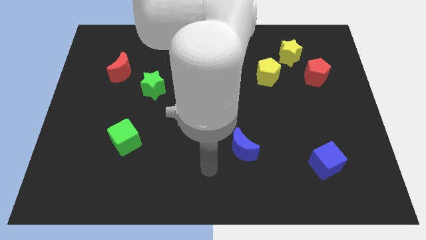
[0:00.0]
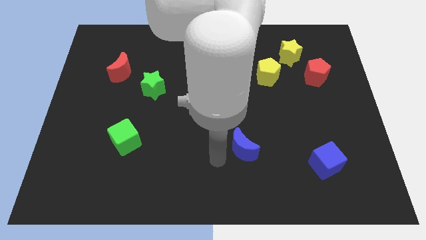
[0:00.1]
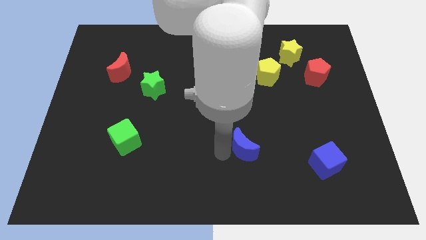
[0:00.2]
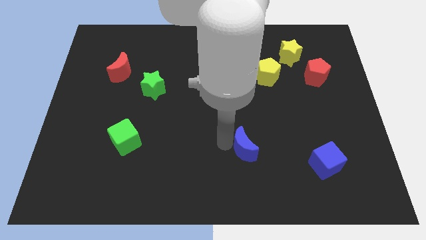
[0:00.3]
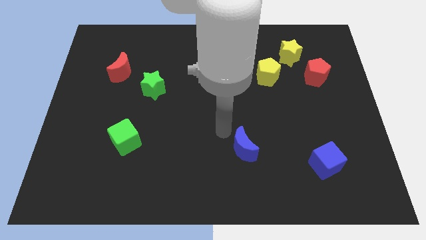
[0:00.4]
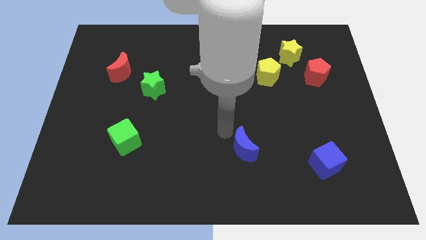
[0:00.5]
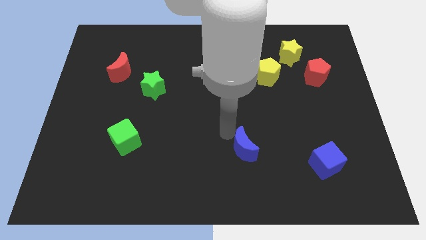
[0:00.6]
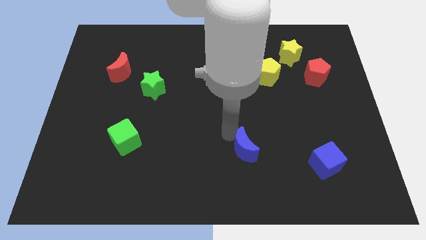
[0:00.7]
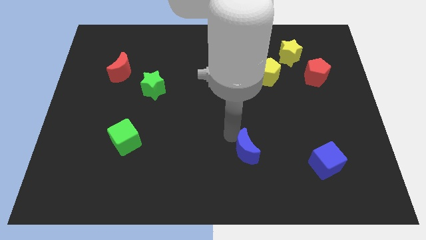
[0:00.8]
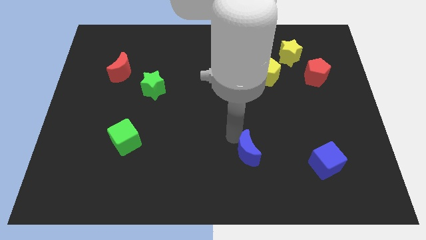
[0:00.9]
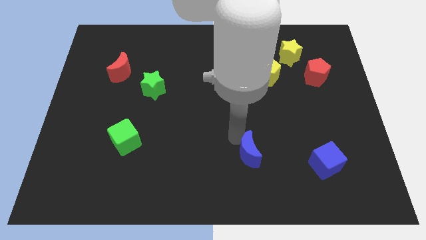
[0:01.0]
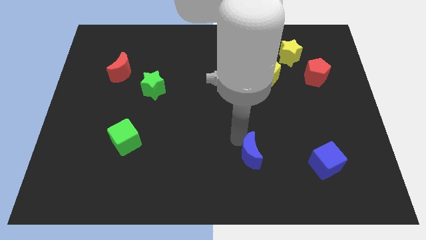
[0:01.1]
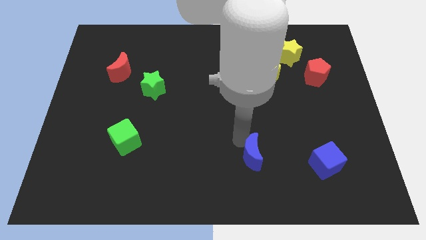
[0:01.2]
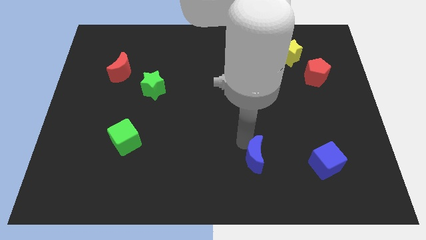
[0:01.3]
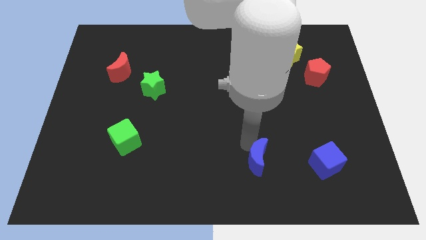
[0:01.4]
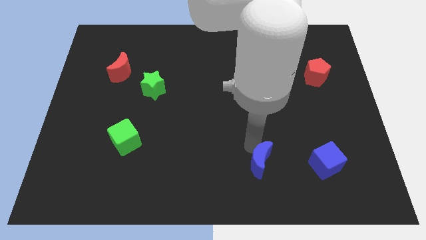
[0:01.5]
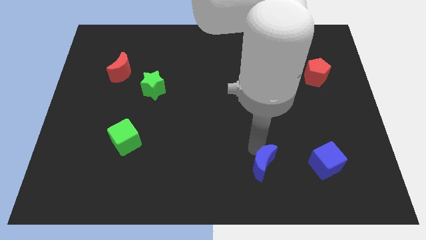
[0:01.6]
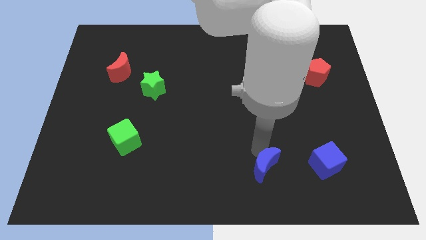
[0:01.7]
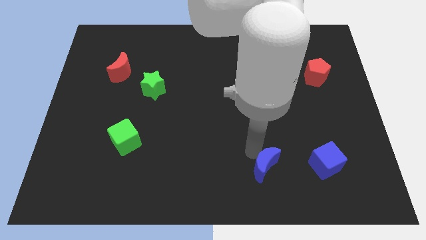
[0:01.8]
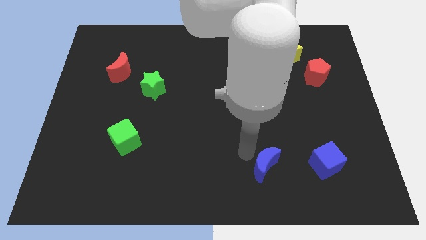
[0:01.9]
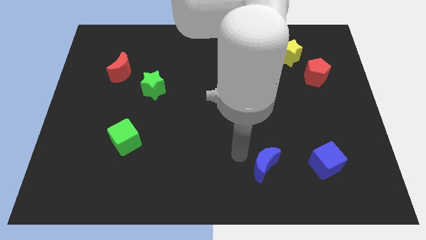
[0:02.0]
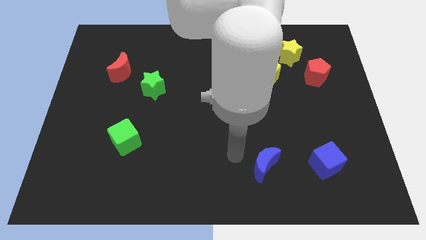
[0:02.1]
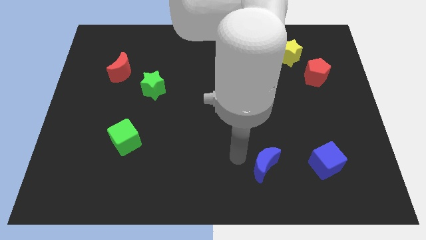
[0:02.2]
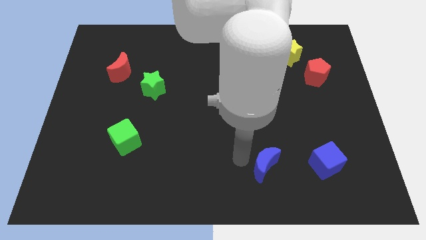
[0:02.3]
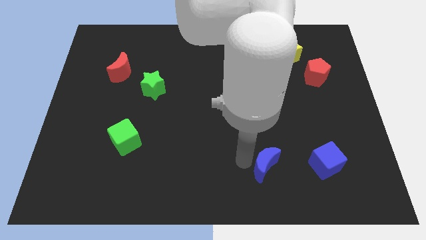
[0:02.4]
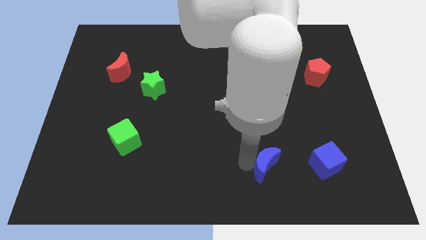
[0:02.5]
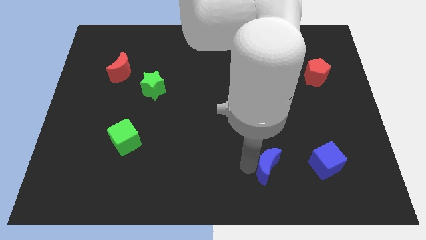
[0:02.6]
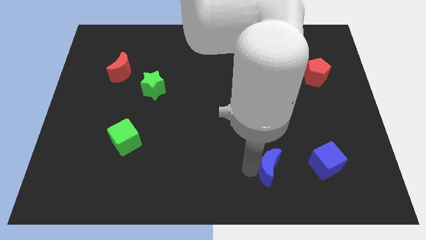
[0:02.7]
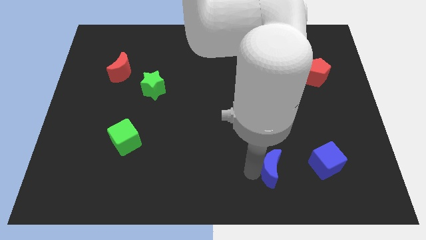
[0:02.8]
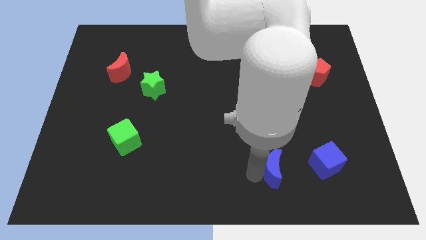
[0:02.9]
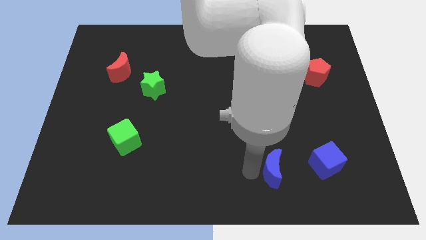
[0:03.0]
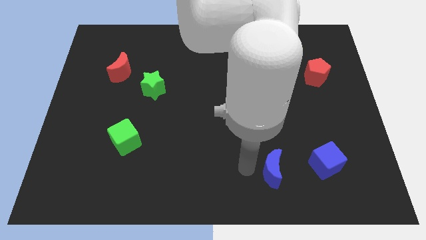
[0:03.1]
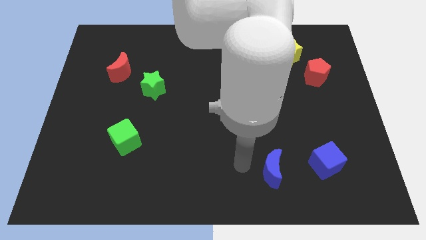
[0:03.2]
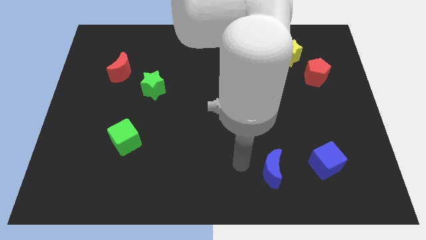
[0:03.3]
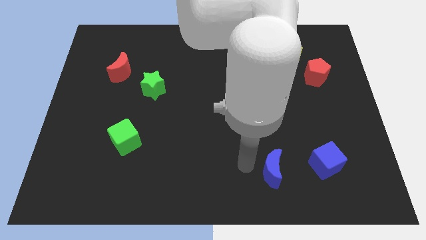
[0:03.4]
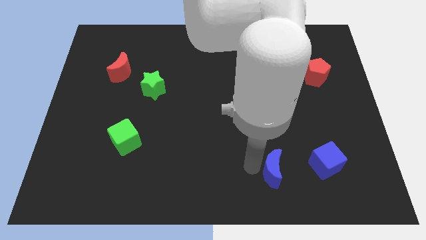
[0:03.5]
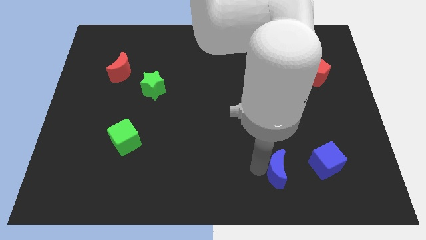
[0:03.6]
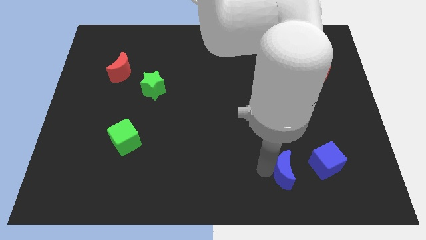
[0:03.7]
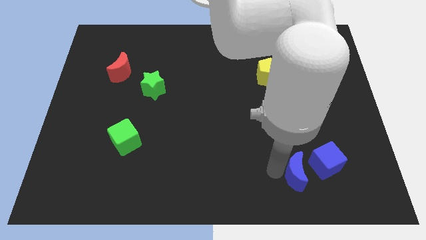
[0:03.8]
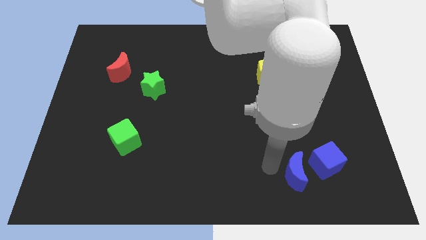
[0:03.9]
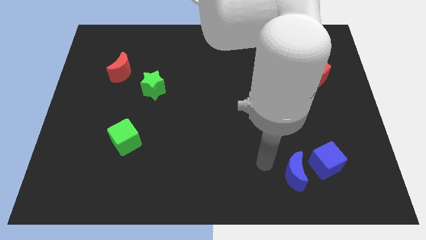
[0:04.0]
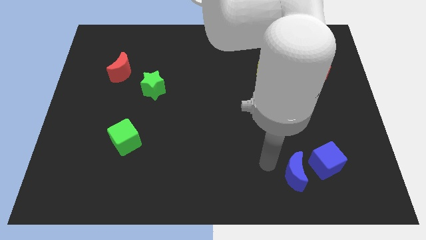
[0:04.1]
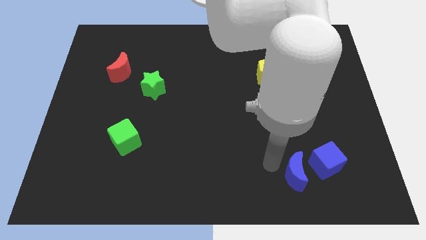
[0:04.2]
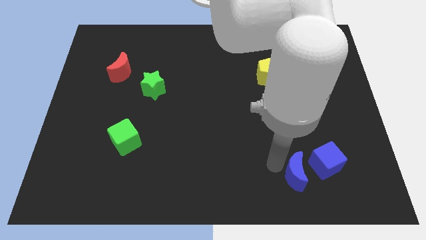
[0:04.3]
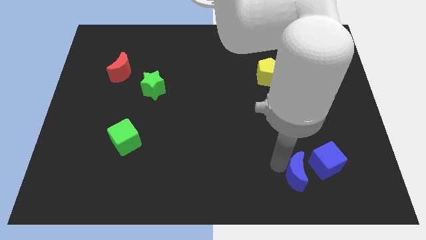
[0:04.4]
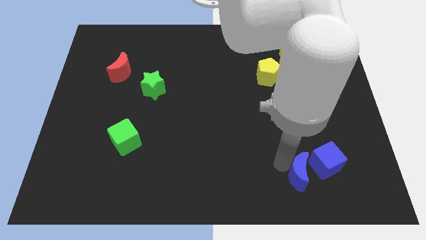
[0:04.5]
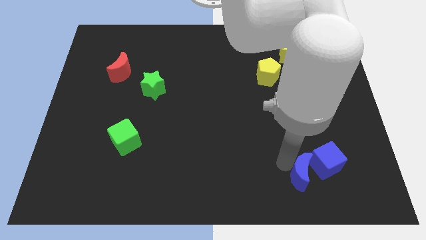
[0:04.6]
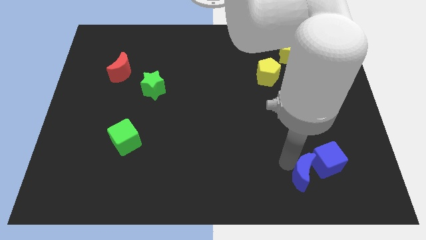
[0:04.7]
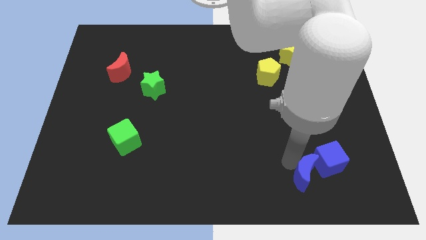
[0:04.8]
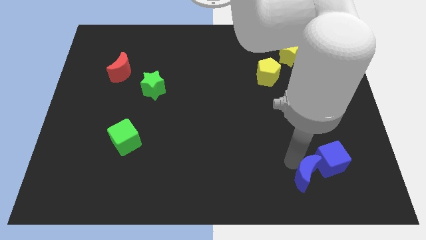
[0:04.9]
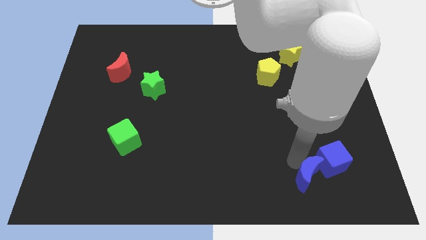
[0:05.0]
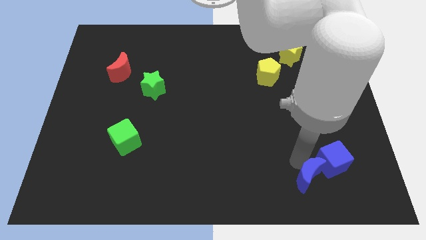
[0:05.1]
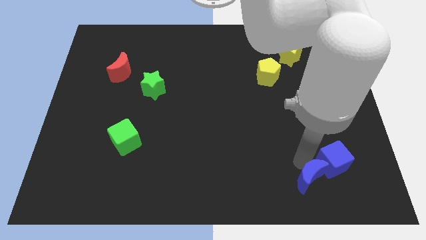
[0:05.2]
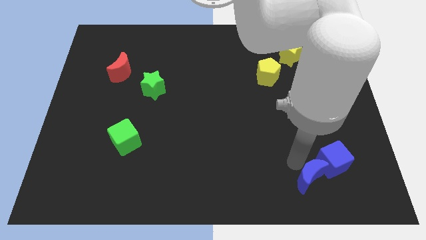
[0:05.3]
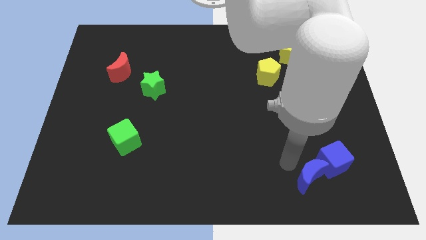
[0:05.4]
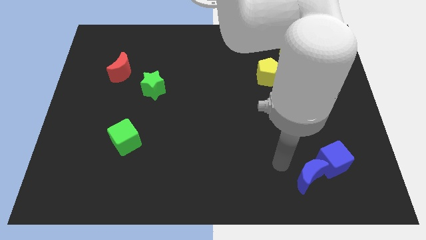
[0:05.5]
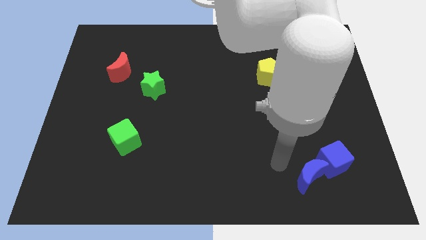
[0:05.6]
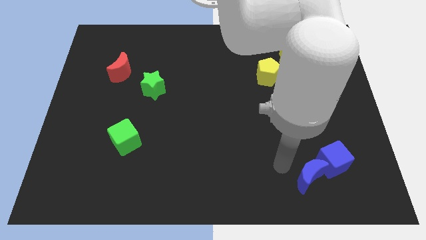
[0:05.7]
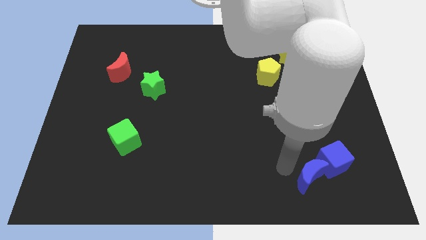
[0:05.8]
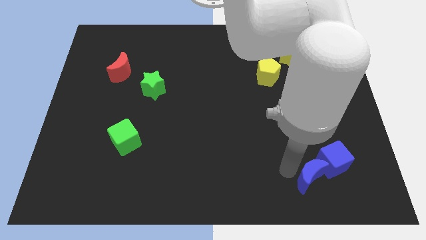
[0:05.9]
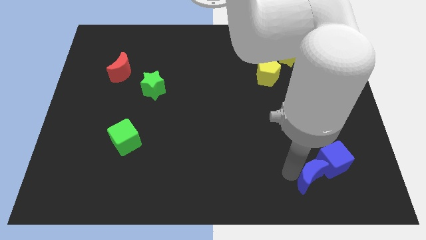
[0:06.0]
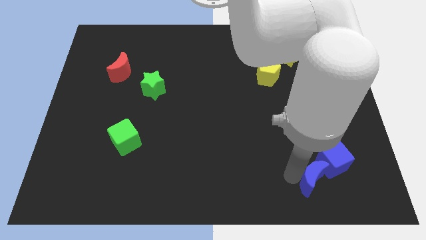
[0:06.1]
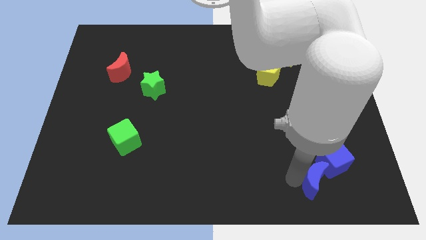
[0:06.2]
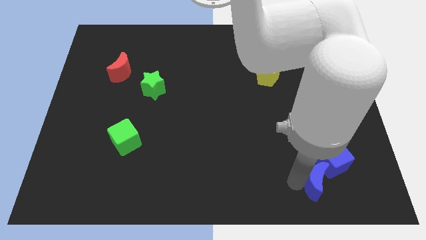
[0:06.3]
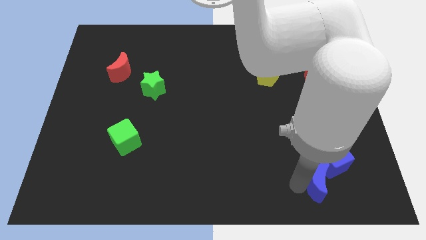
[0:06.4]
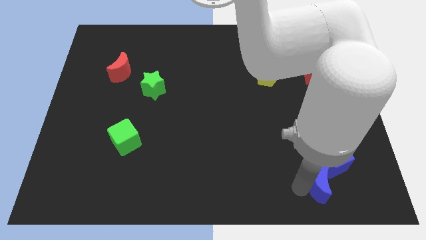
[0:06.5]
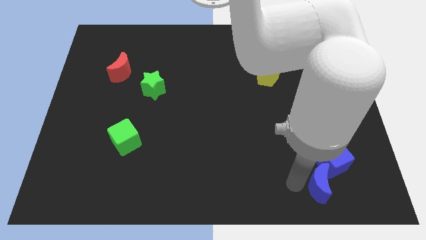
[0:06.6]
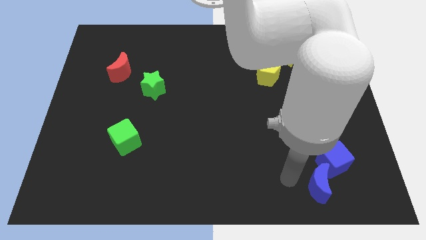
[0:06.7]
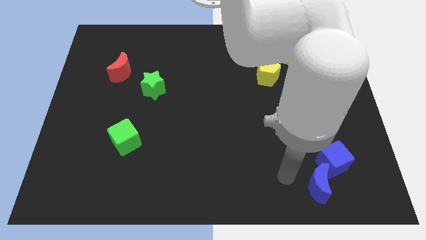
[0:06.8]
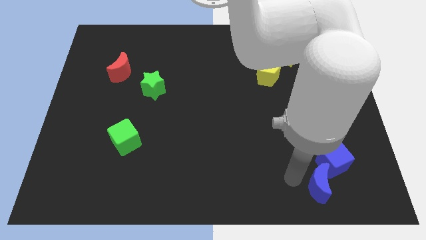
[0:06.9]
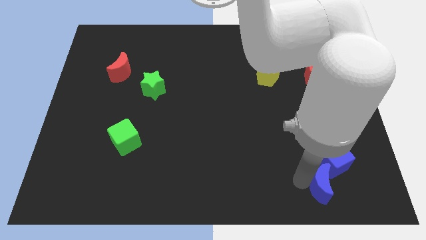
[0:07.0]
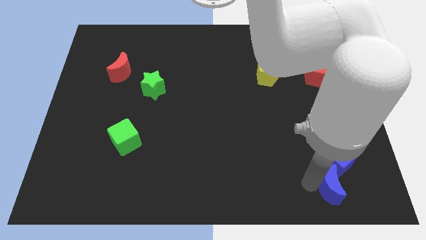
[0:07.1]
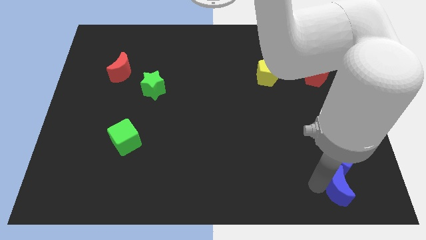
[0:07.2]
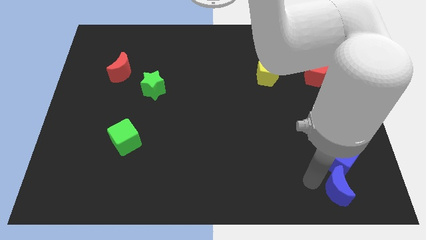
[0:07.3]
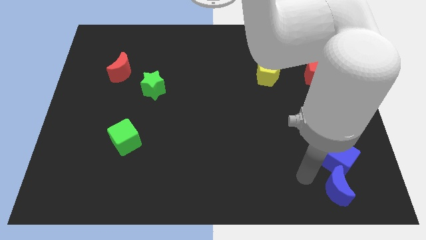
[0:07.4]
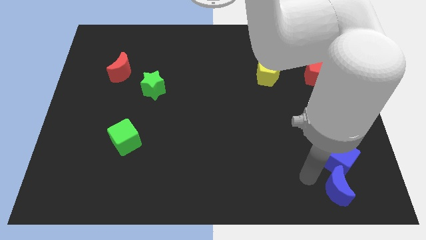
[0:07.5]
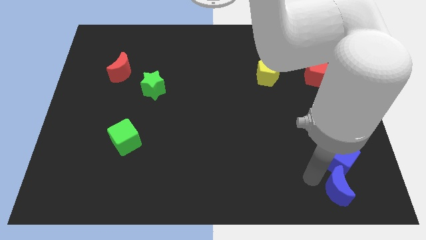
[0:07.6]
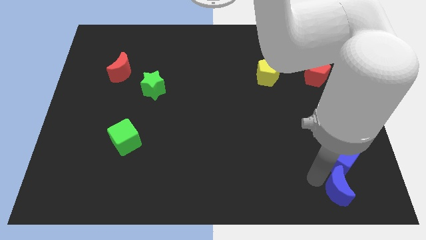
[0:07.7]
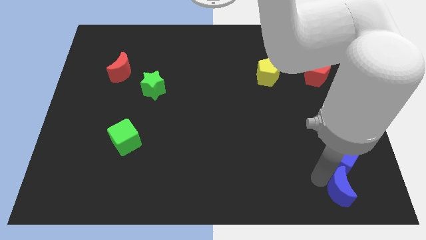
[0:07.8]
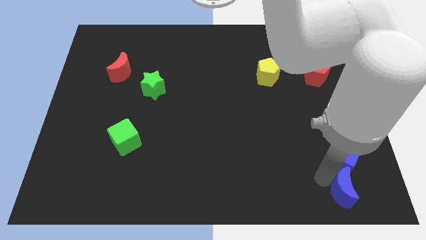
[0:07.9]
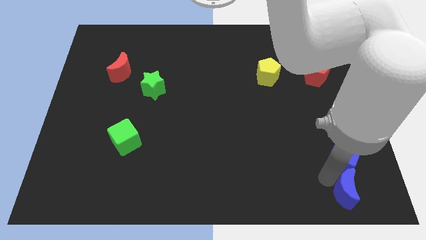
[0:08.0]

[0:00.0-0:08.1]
slide the blue moon to the bottom right
